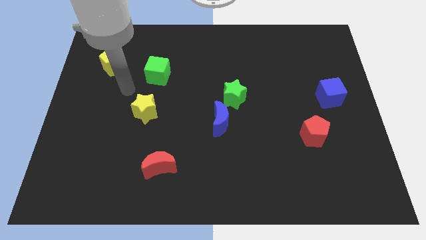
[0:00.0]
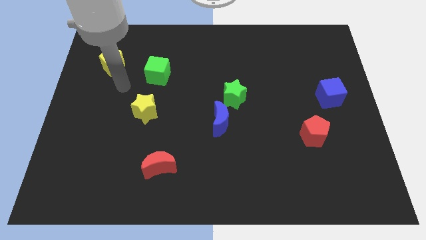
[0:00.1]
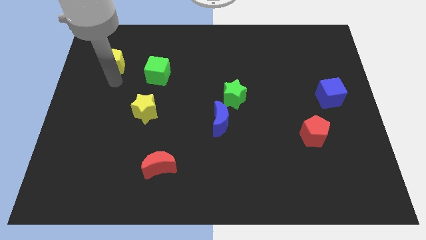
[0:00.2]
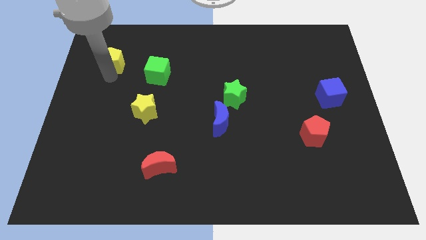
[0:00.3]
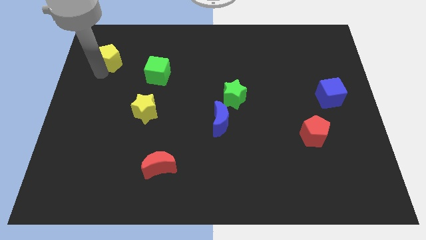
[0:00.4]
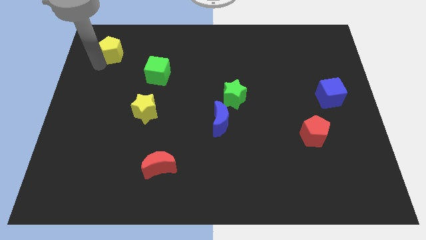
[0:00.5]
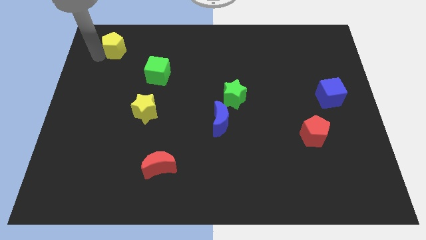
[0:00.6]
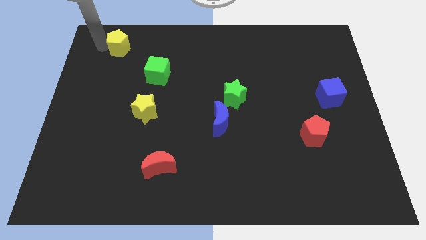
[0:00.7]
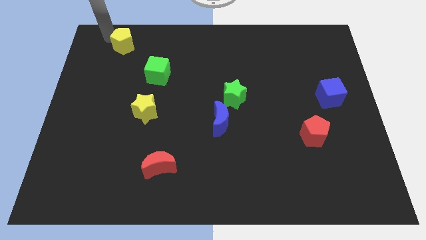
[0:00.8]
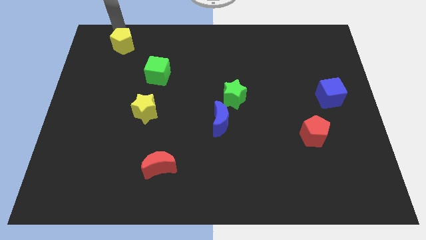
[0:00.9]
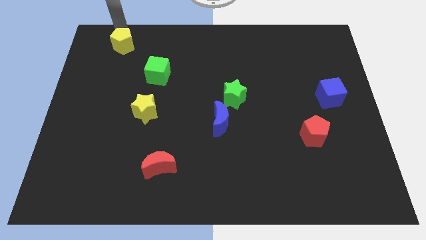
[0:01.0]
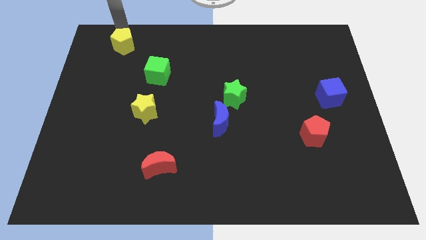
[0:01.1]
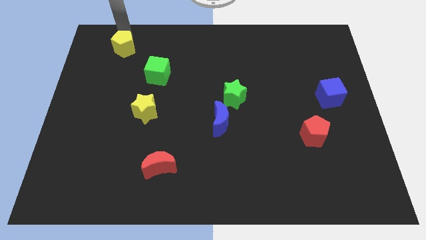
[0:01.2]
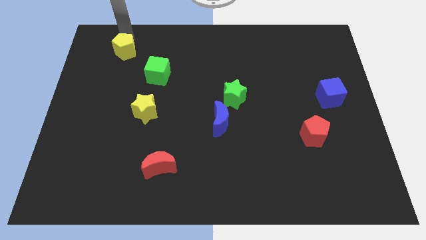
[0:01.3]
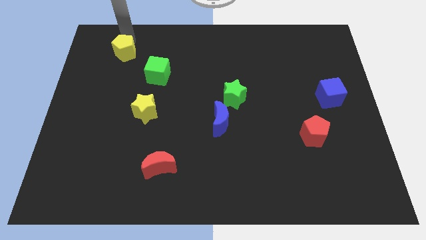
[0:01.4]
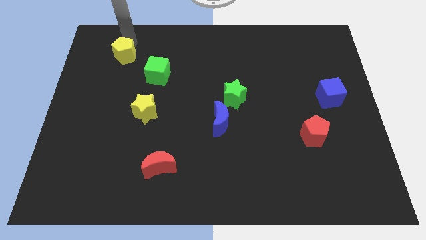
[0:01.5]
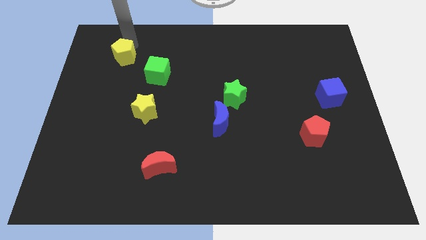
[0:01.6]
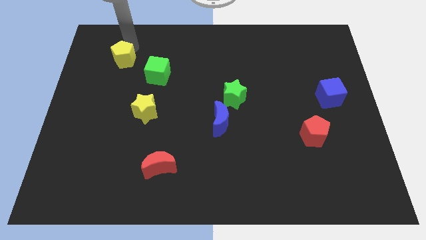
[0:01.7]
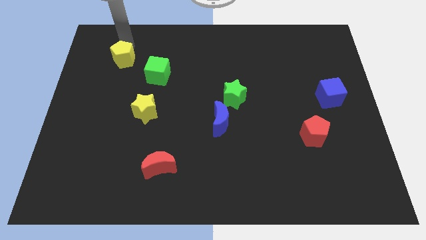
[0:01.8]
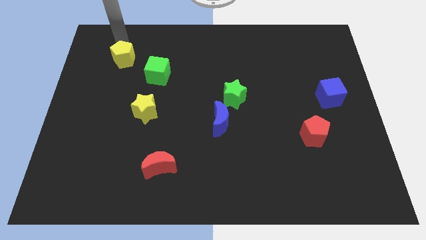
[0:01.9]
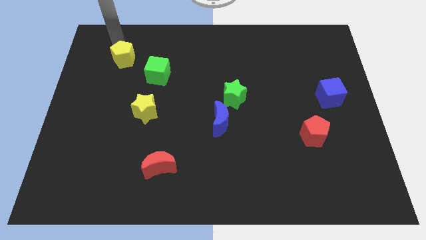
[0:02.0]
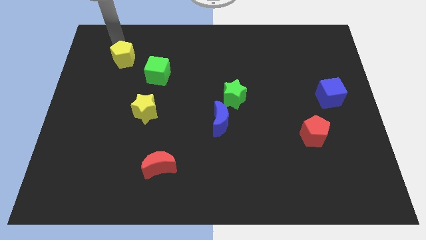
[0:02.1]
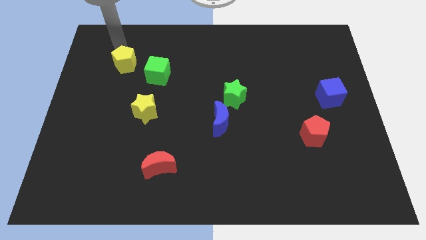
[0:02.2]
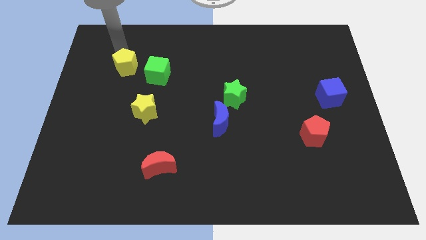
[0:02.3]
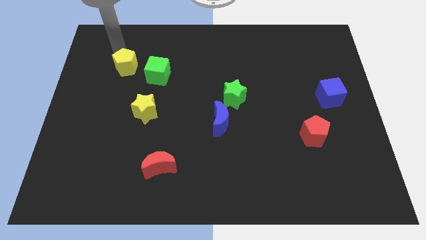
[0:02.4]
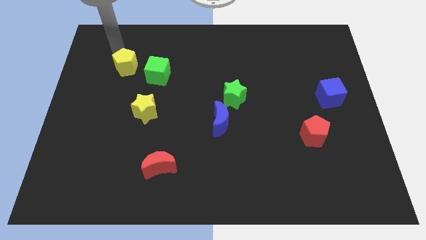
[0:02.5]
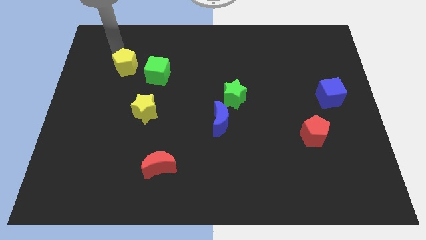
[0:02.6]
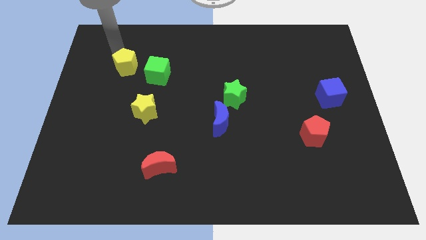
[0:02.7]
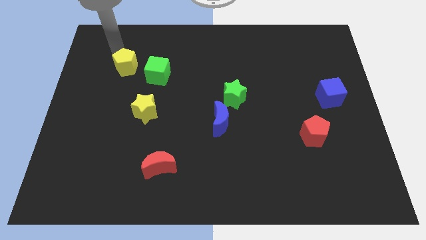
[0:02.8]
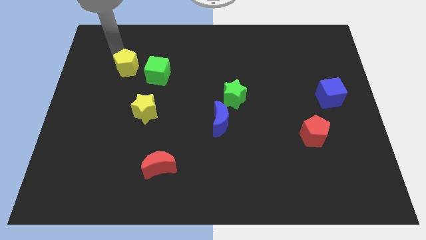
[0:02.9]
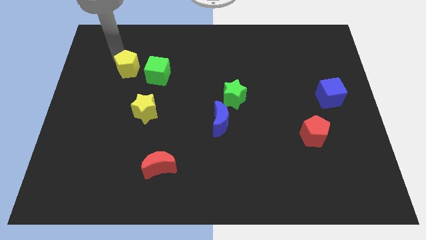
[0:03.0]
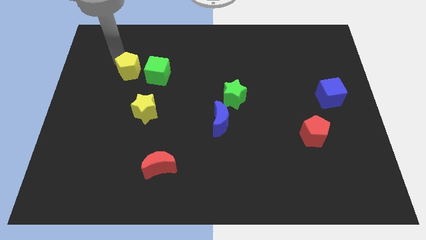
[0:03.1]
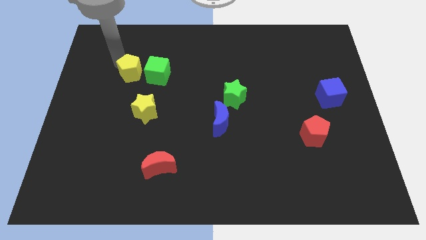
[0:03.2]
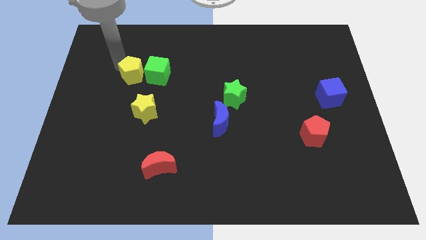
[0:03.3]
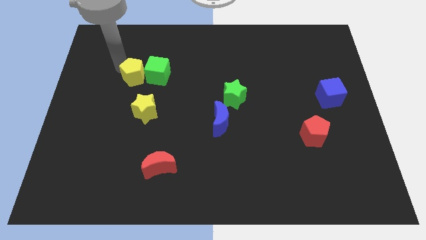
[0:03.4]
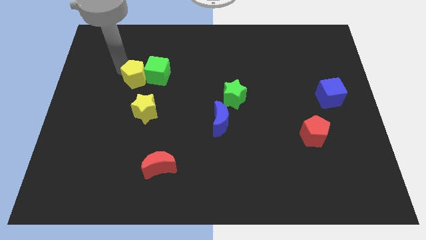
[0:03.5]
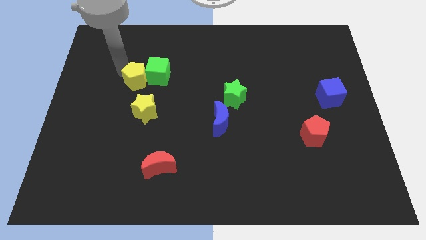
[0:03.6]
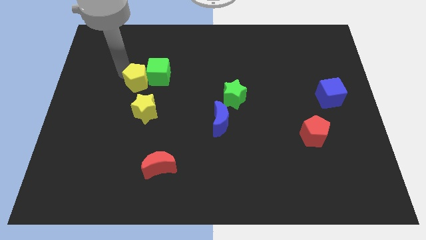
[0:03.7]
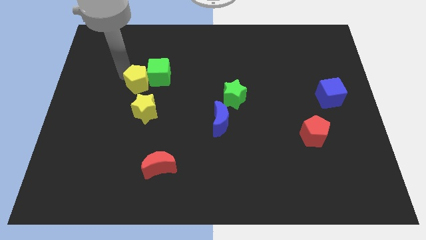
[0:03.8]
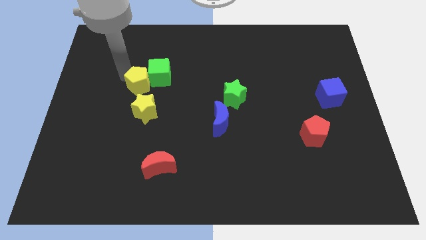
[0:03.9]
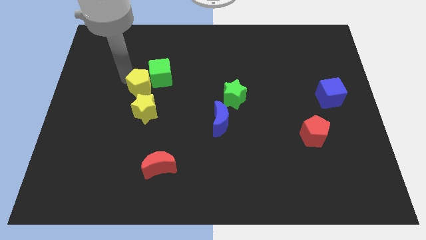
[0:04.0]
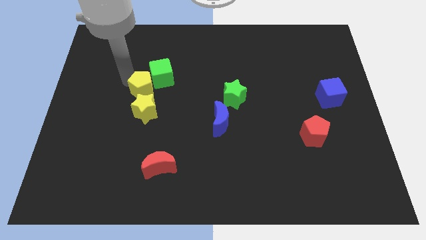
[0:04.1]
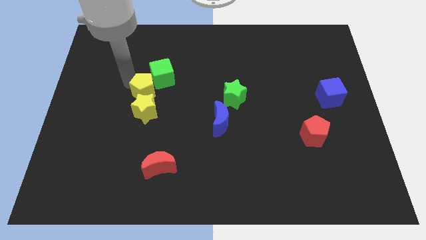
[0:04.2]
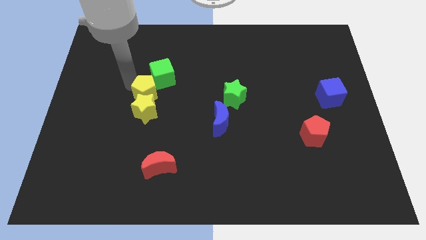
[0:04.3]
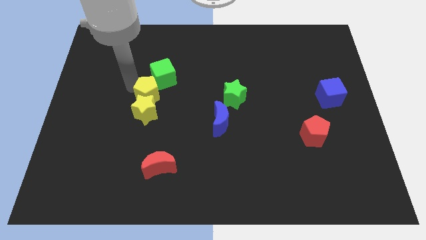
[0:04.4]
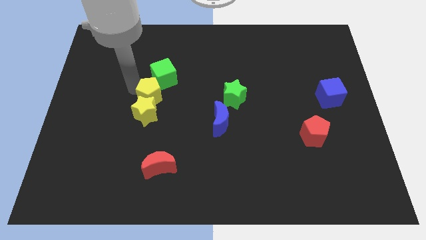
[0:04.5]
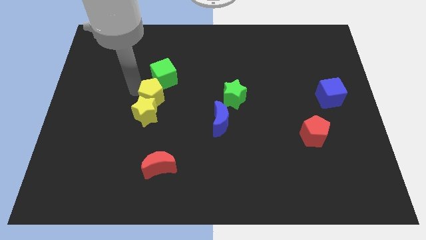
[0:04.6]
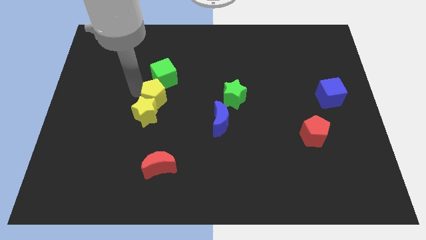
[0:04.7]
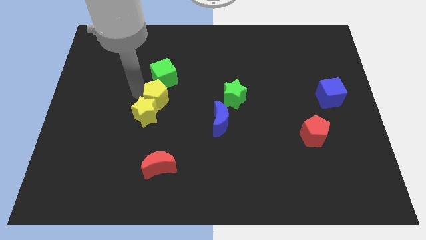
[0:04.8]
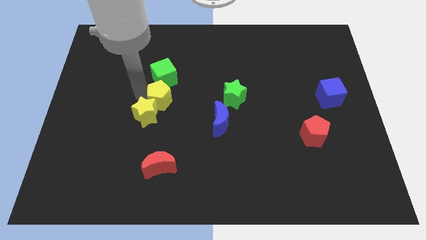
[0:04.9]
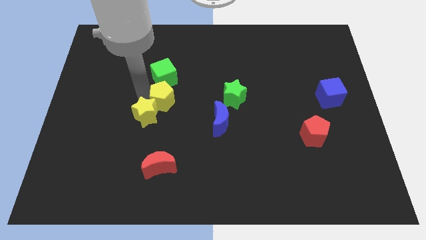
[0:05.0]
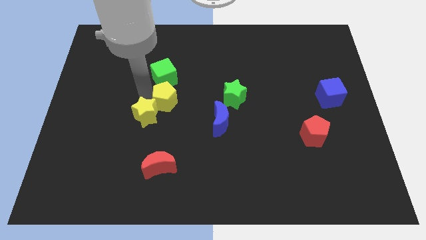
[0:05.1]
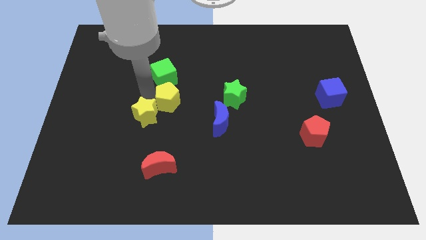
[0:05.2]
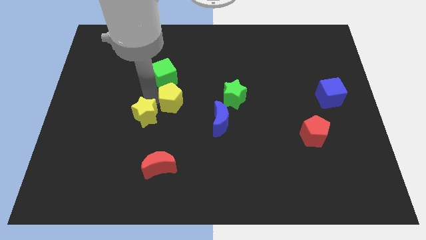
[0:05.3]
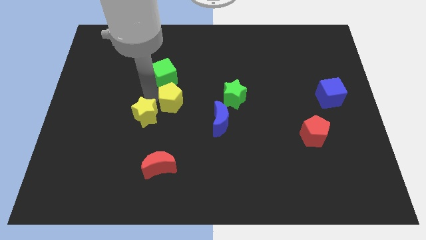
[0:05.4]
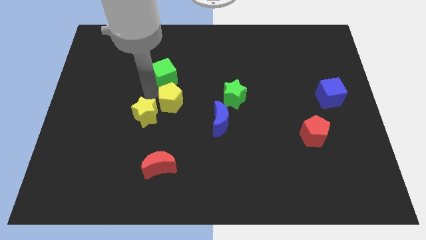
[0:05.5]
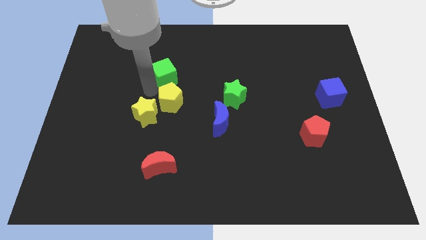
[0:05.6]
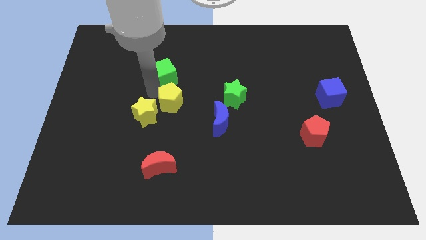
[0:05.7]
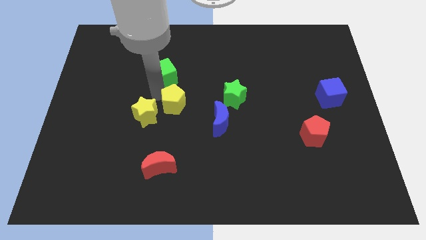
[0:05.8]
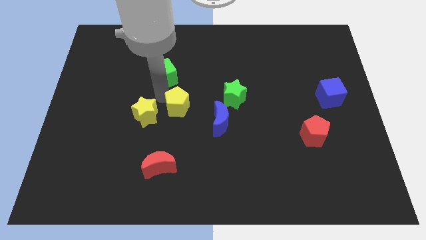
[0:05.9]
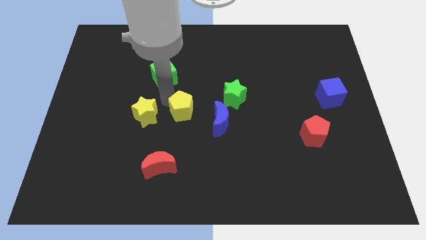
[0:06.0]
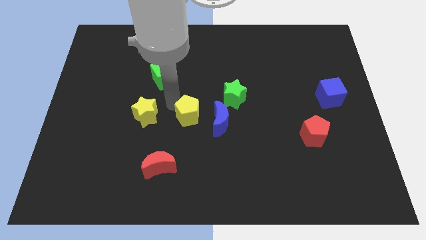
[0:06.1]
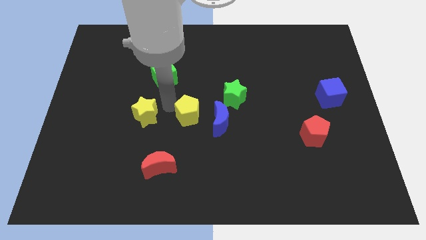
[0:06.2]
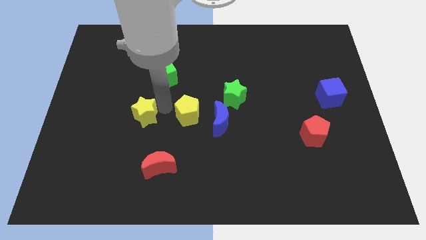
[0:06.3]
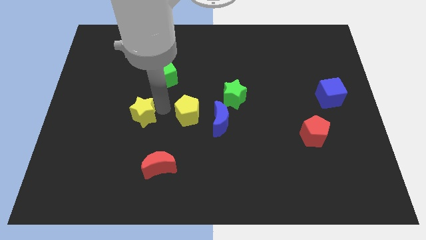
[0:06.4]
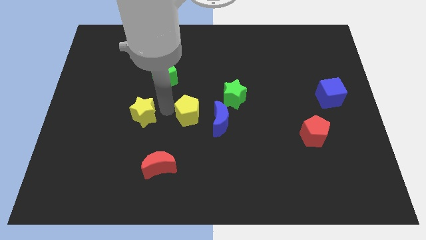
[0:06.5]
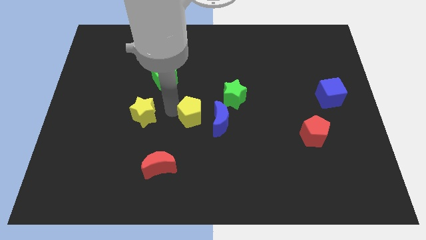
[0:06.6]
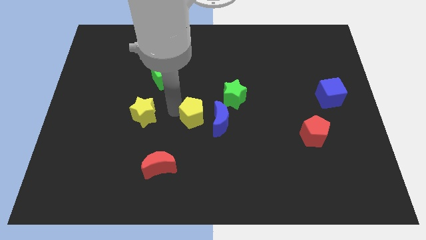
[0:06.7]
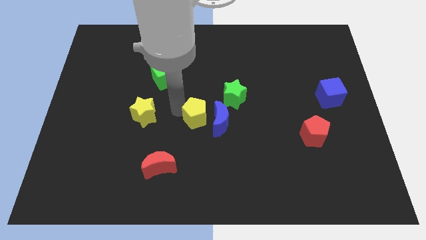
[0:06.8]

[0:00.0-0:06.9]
slide the yellow pentagon close to the blue moon
